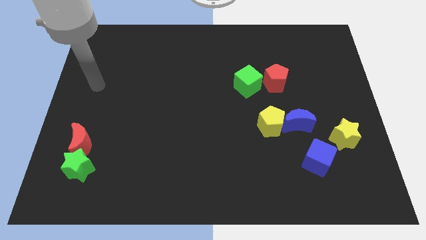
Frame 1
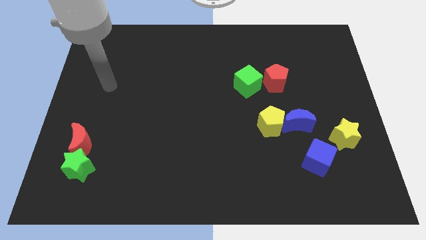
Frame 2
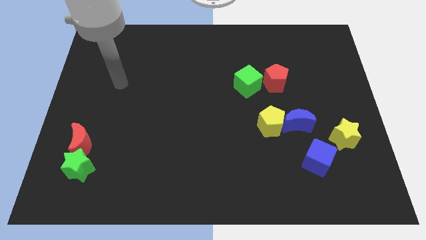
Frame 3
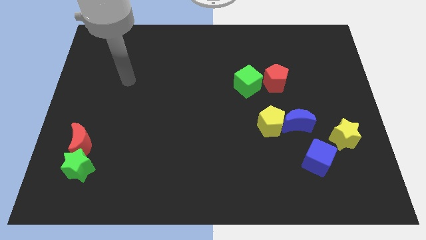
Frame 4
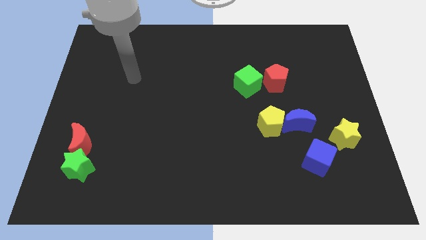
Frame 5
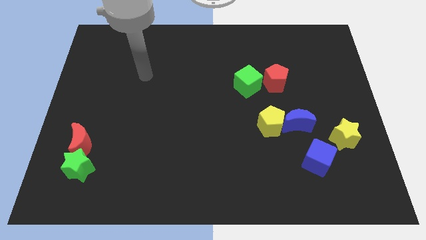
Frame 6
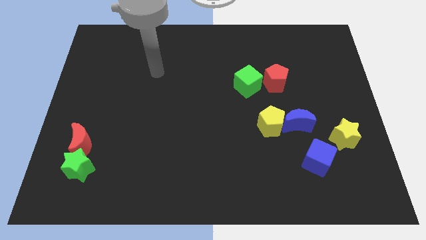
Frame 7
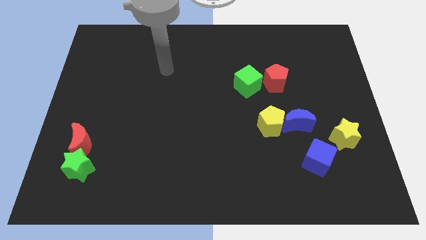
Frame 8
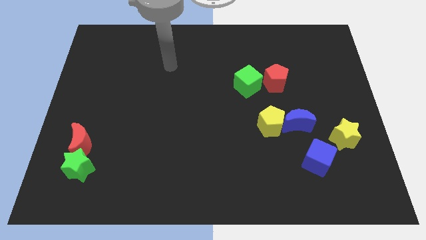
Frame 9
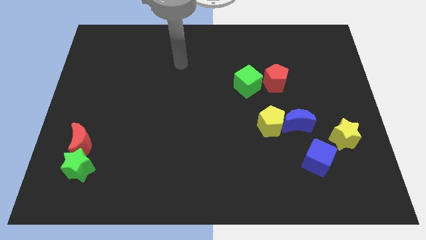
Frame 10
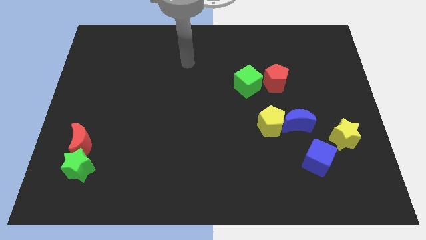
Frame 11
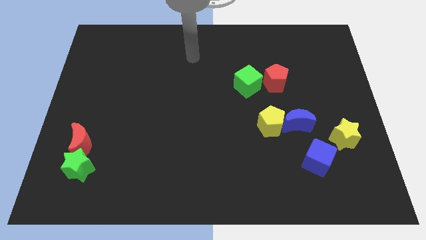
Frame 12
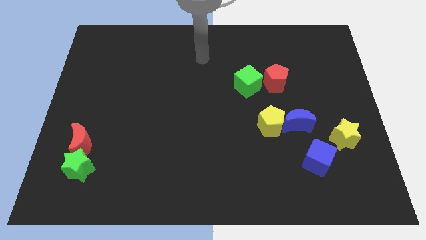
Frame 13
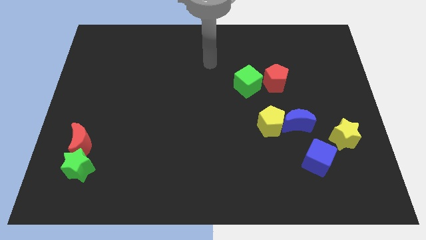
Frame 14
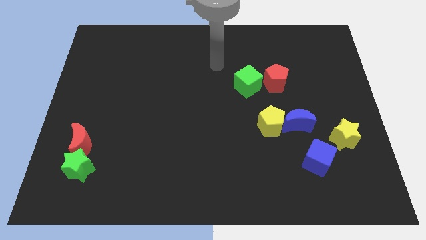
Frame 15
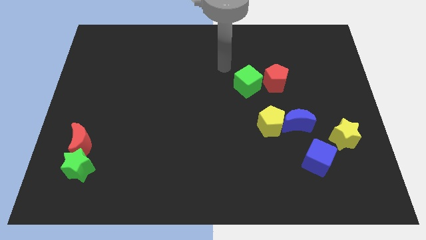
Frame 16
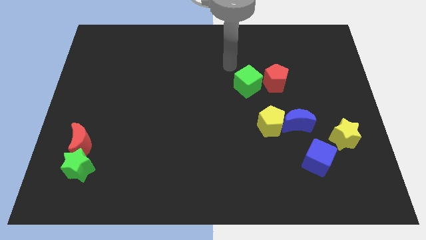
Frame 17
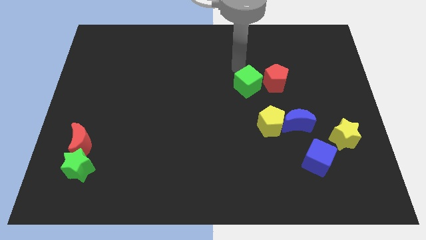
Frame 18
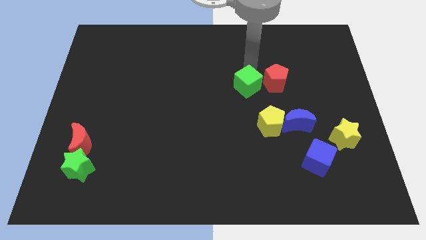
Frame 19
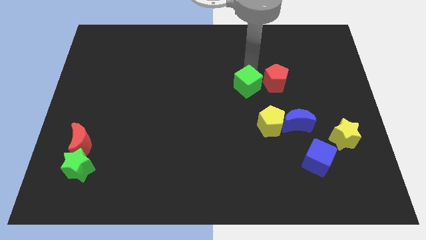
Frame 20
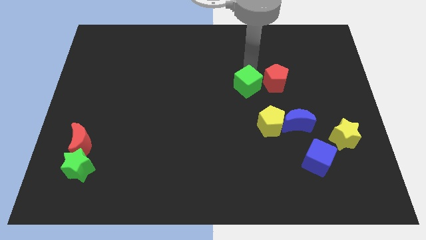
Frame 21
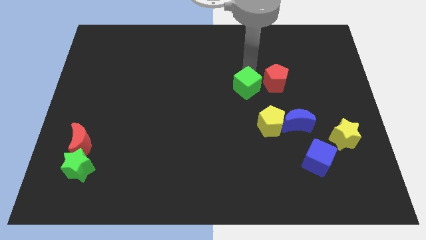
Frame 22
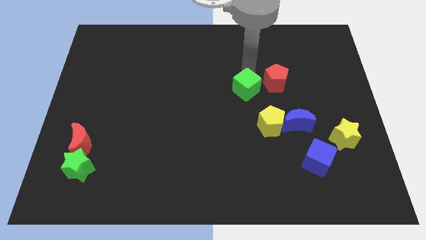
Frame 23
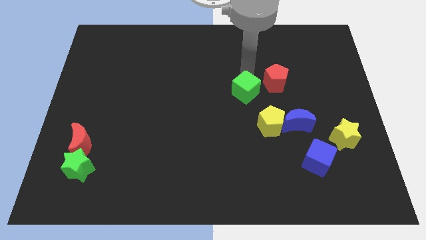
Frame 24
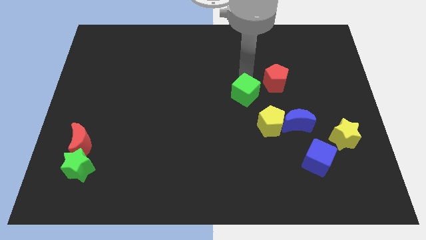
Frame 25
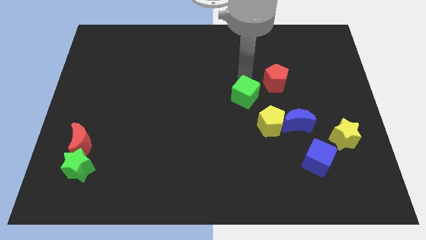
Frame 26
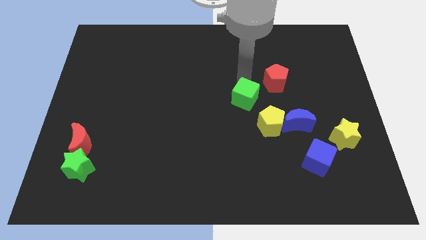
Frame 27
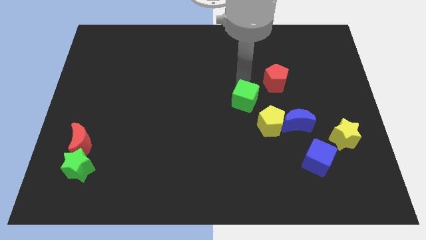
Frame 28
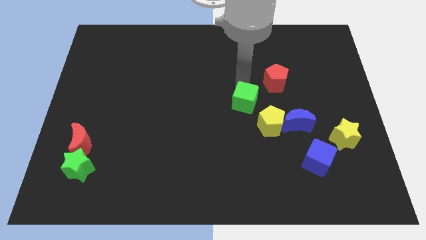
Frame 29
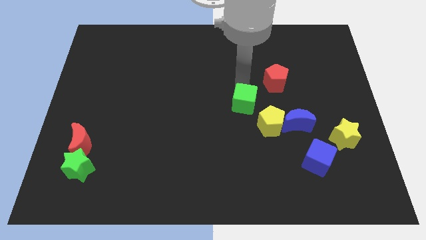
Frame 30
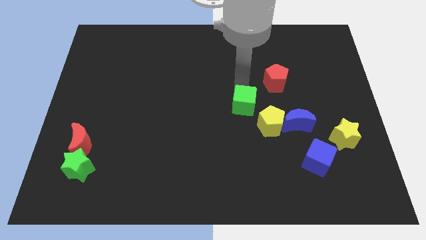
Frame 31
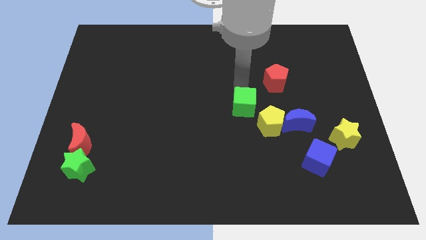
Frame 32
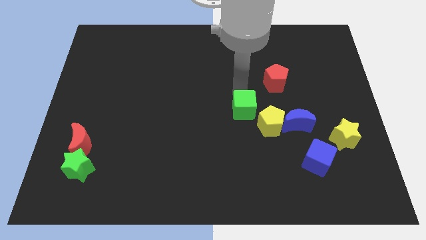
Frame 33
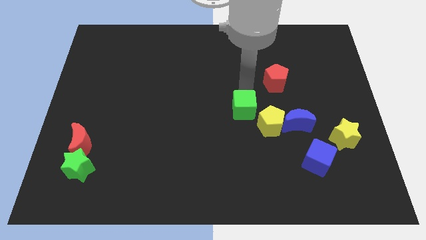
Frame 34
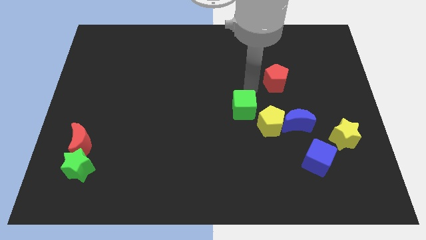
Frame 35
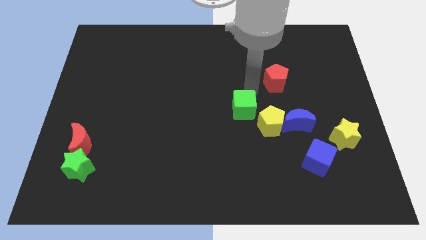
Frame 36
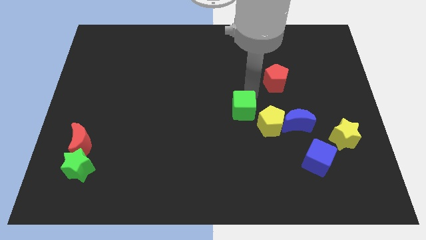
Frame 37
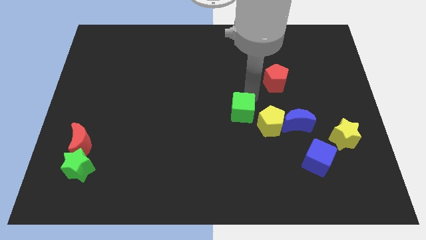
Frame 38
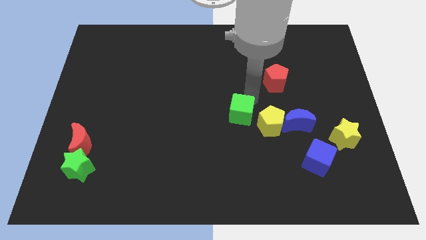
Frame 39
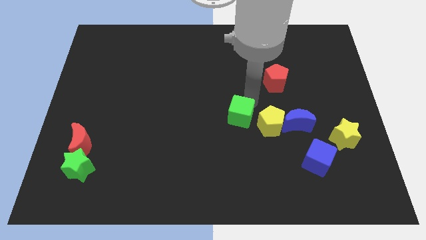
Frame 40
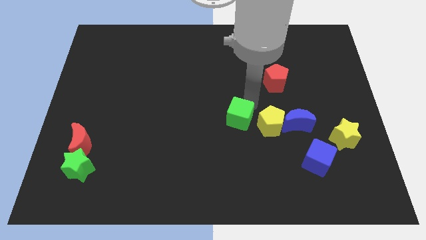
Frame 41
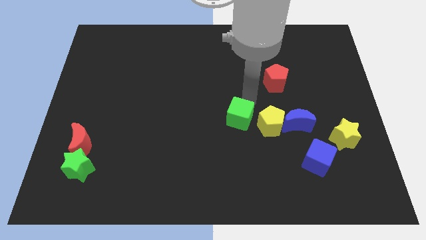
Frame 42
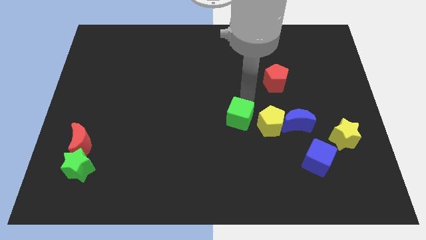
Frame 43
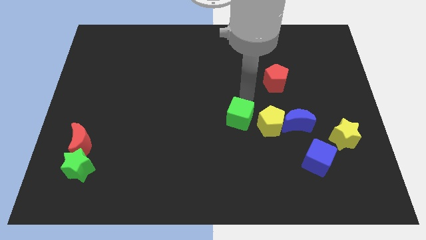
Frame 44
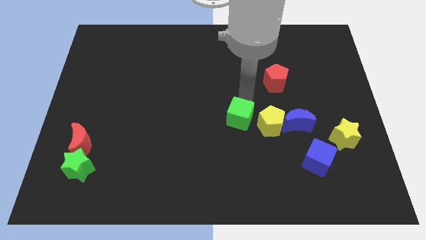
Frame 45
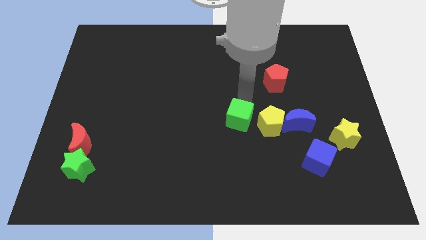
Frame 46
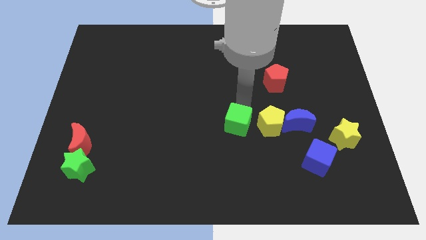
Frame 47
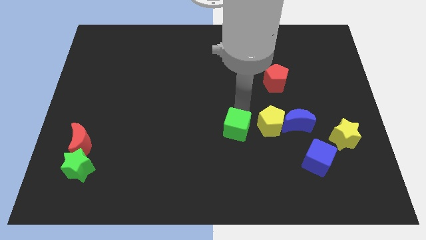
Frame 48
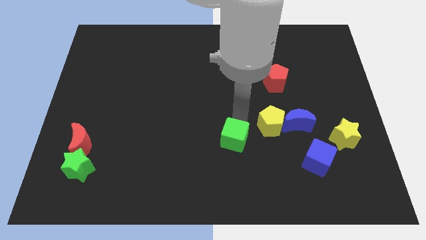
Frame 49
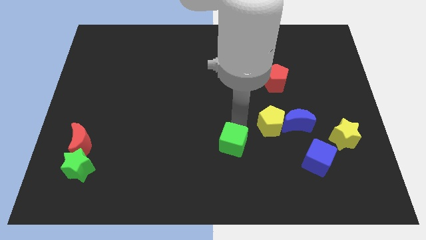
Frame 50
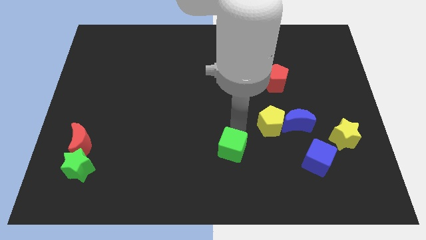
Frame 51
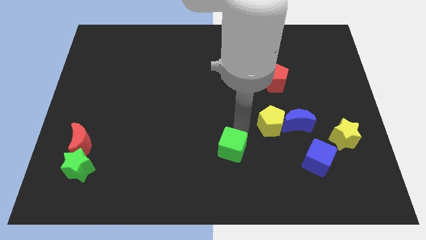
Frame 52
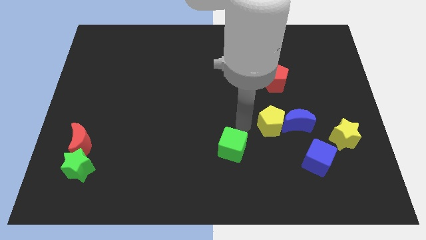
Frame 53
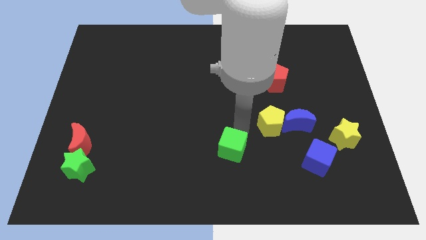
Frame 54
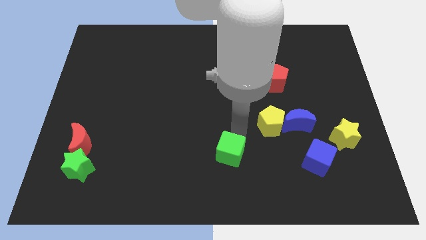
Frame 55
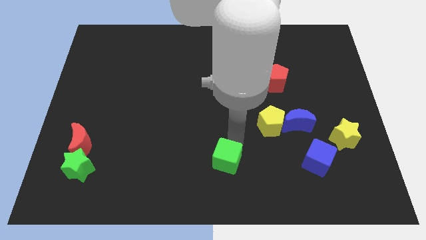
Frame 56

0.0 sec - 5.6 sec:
push the green cube to the bottom

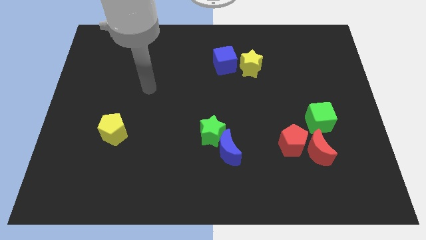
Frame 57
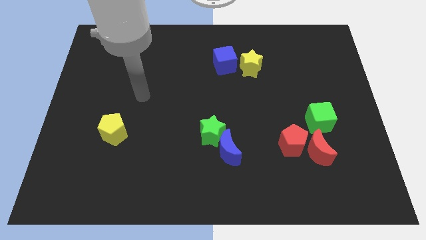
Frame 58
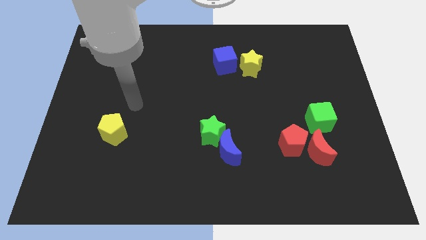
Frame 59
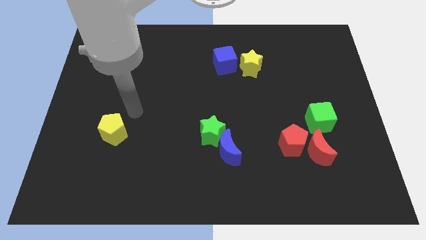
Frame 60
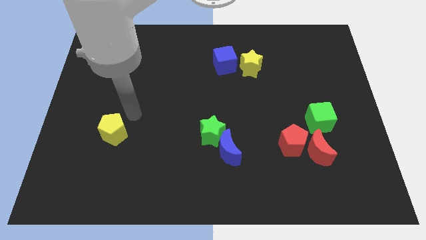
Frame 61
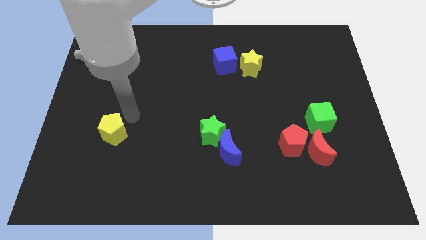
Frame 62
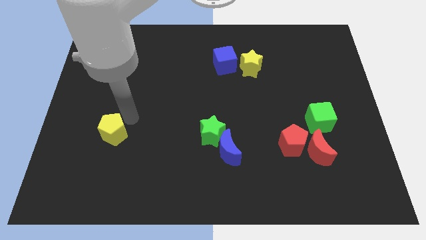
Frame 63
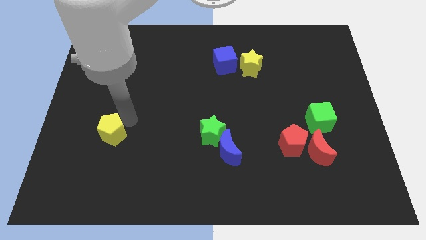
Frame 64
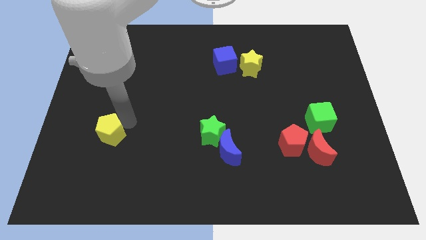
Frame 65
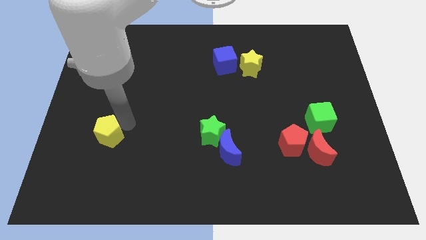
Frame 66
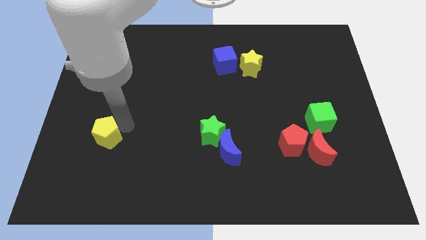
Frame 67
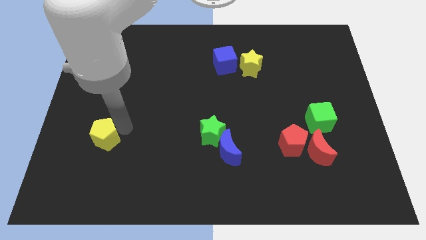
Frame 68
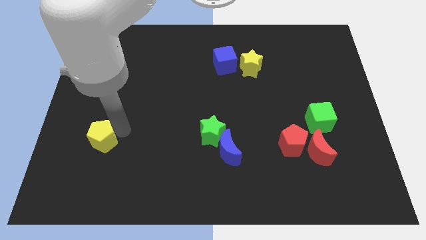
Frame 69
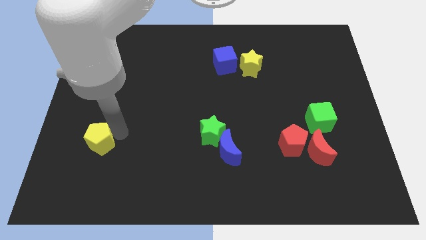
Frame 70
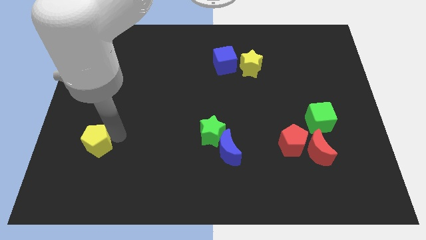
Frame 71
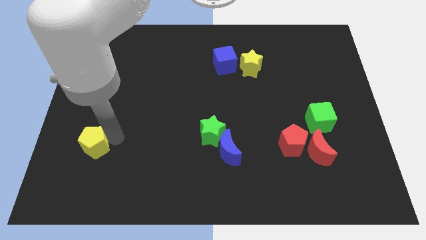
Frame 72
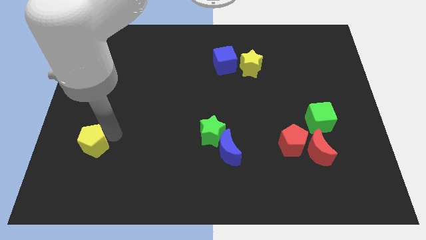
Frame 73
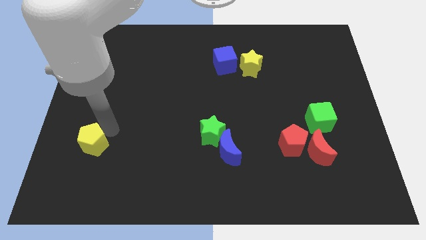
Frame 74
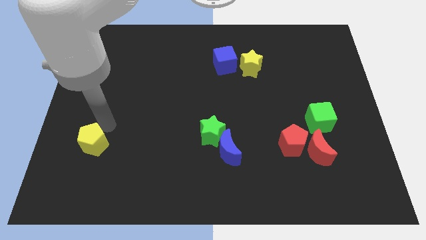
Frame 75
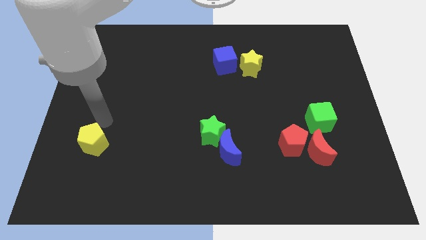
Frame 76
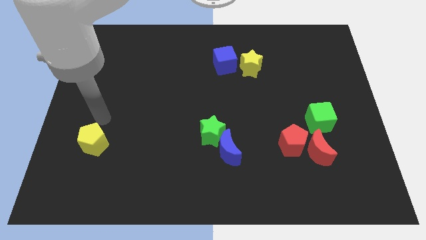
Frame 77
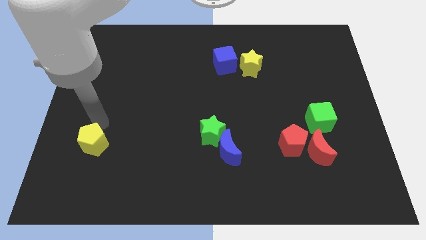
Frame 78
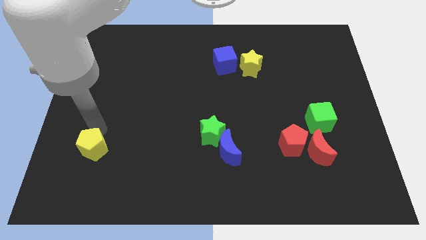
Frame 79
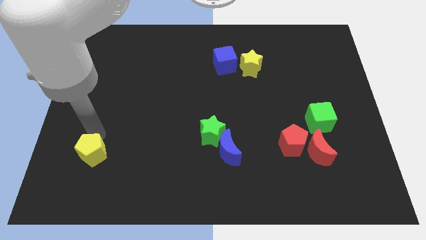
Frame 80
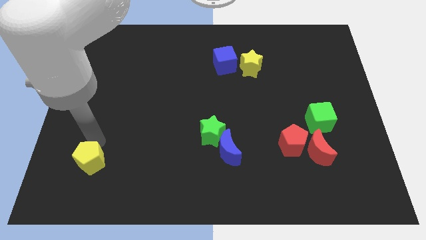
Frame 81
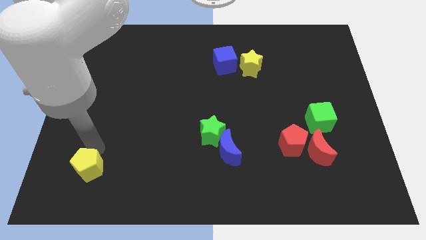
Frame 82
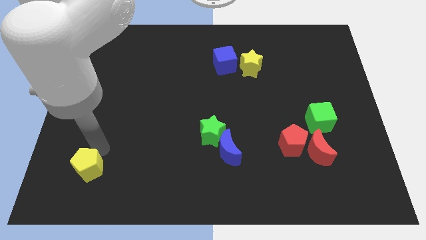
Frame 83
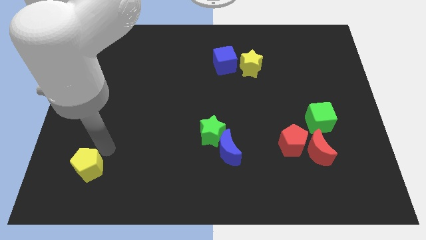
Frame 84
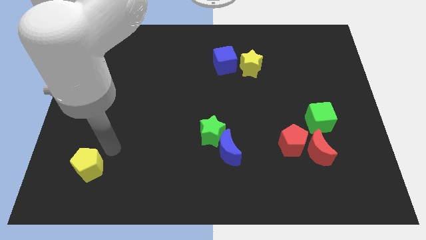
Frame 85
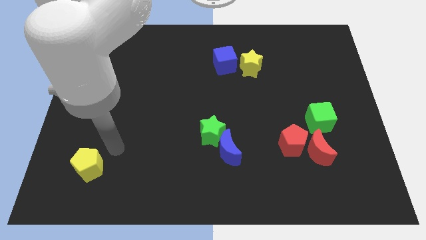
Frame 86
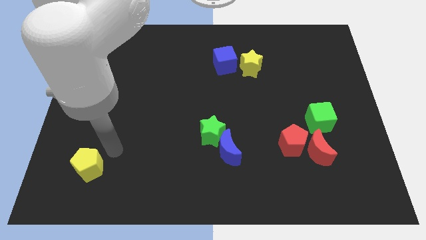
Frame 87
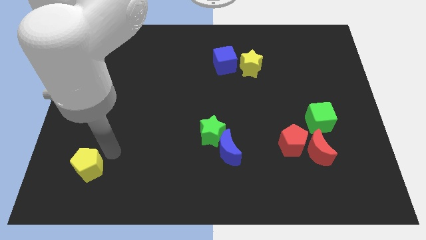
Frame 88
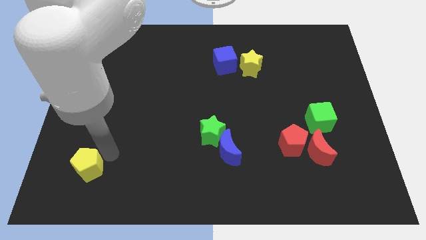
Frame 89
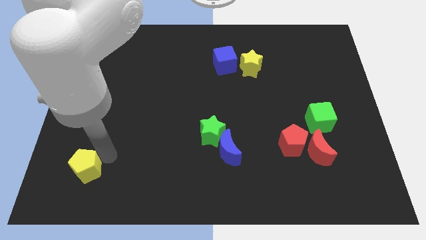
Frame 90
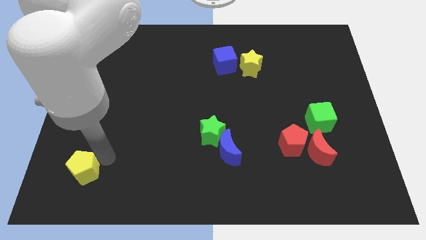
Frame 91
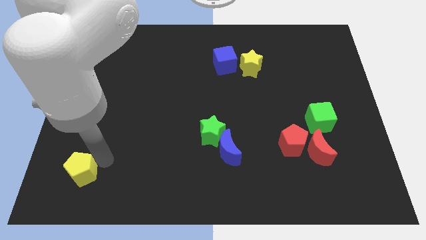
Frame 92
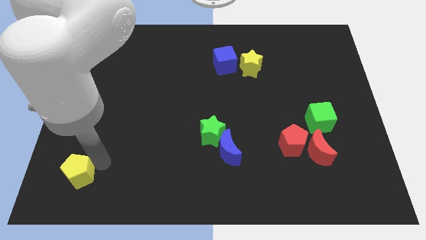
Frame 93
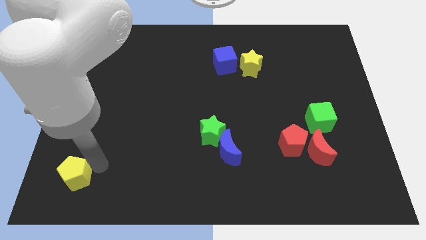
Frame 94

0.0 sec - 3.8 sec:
slide the yellow pentagon to the bottom left
